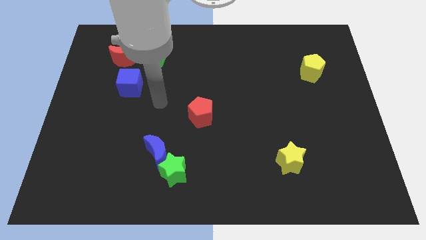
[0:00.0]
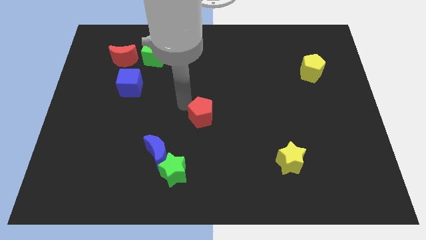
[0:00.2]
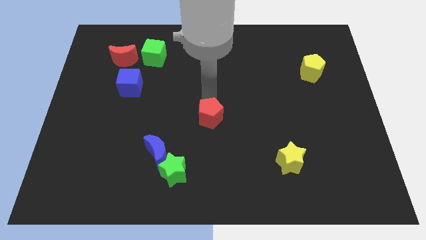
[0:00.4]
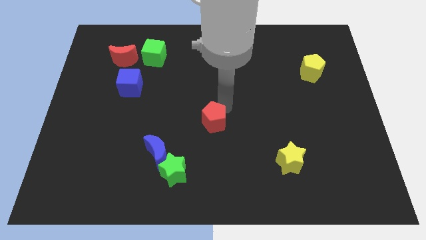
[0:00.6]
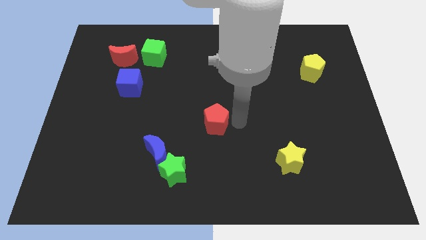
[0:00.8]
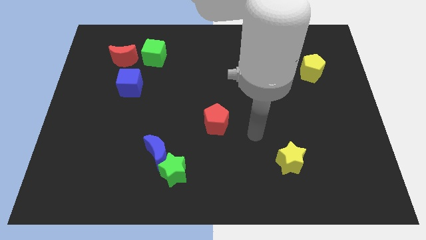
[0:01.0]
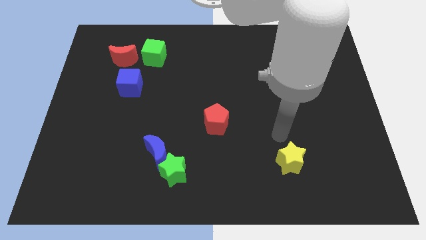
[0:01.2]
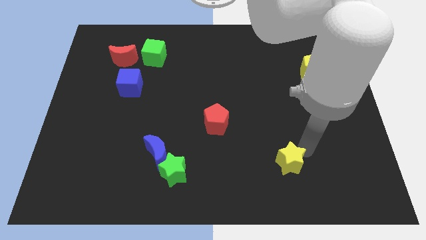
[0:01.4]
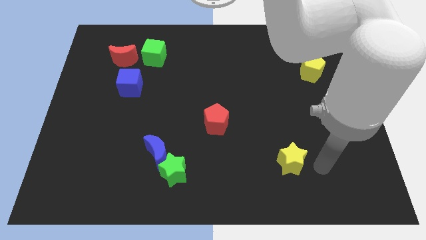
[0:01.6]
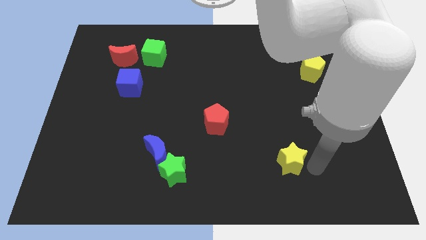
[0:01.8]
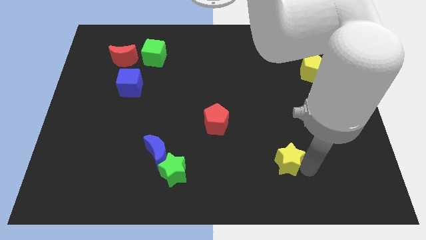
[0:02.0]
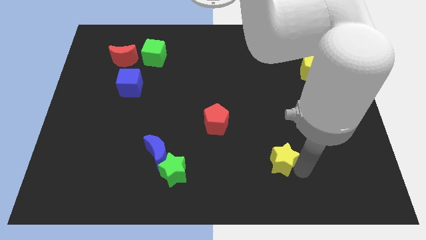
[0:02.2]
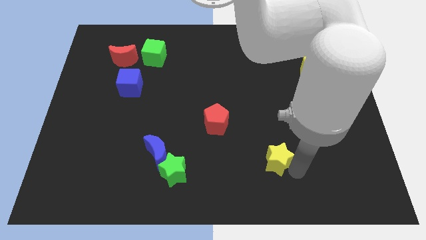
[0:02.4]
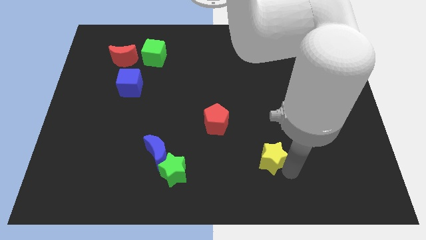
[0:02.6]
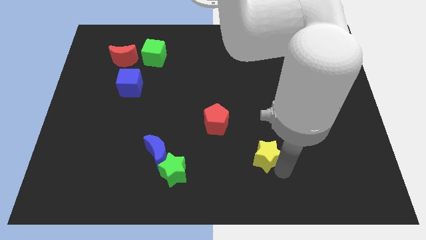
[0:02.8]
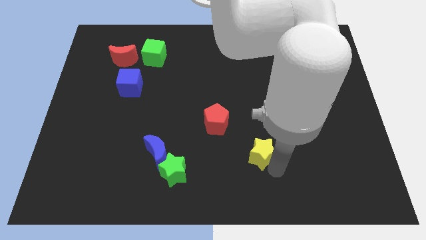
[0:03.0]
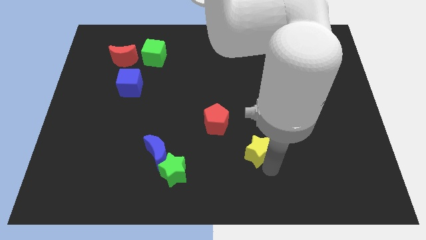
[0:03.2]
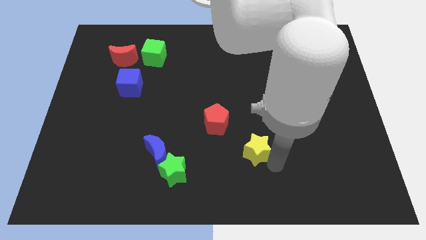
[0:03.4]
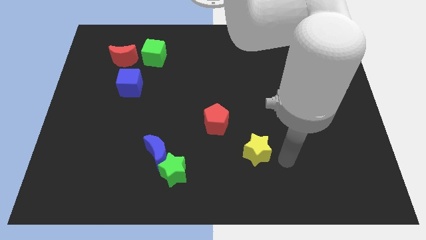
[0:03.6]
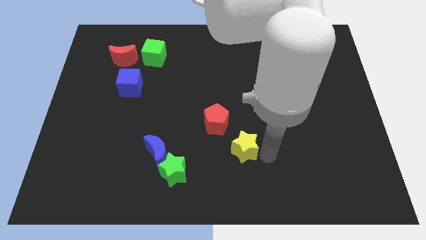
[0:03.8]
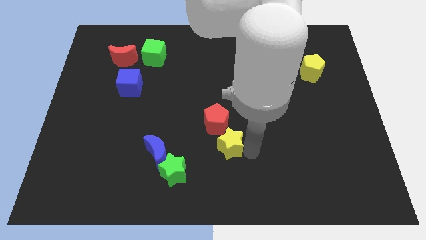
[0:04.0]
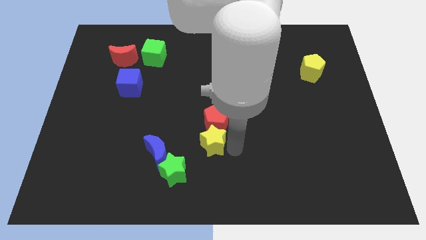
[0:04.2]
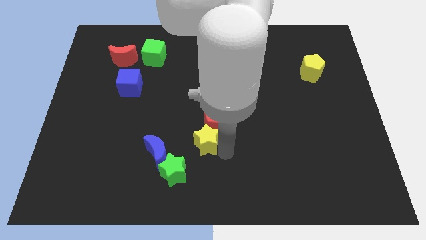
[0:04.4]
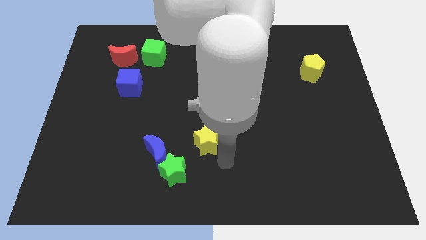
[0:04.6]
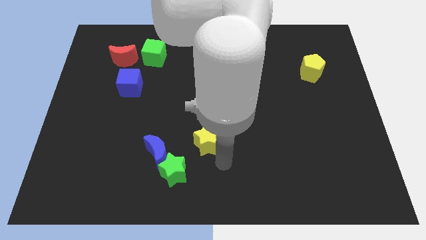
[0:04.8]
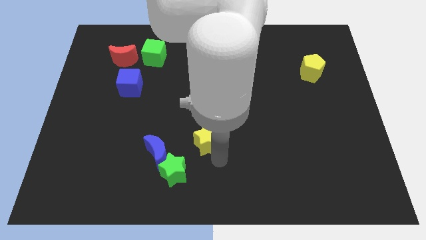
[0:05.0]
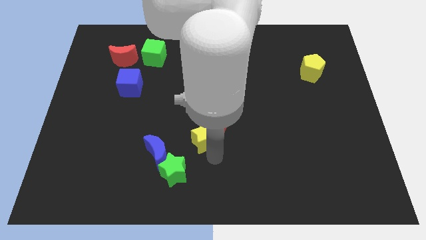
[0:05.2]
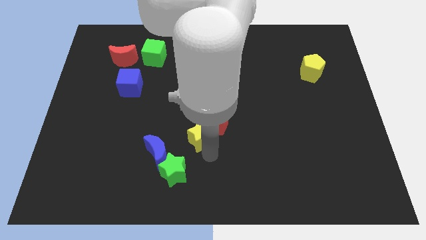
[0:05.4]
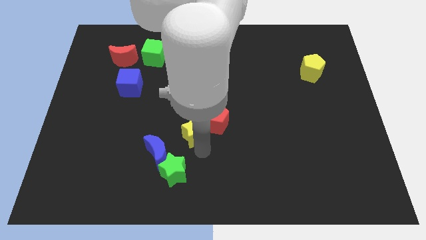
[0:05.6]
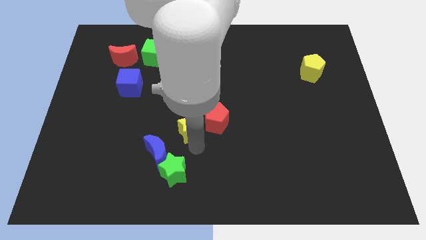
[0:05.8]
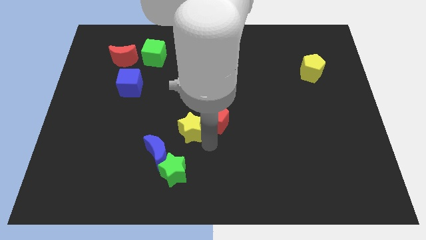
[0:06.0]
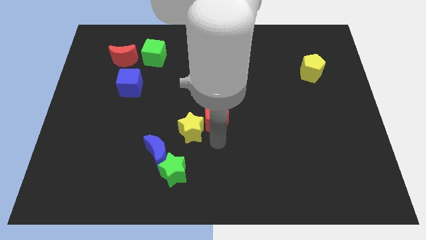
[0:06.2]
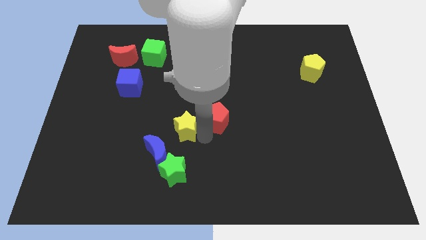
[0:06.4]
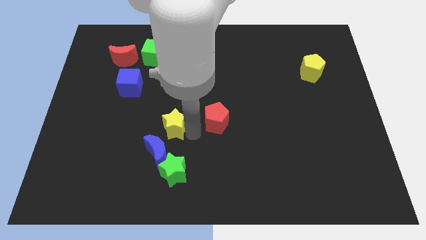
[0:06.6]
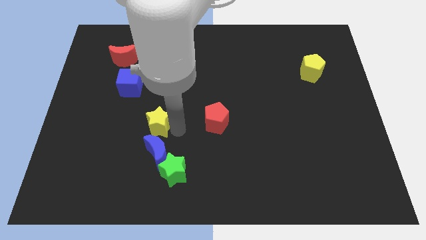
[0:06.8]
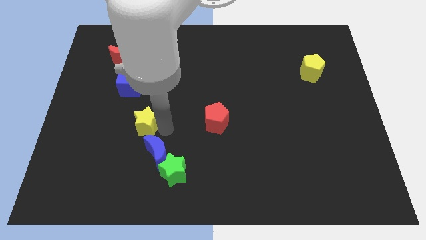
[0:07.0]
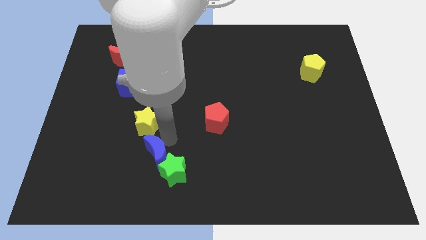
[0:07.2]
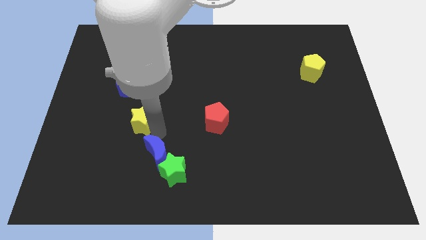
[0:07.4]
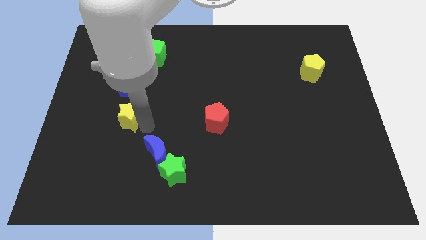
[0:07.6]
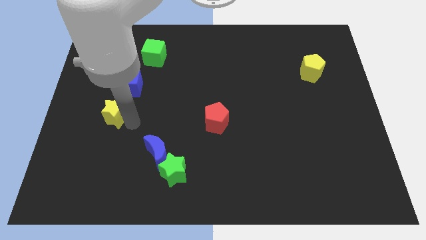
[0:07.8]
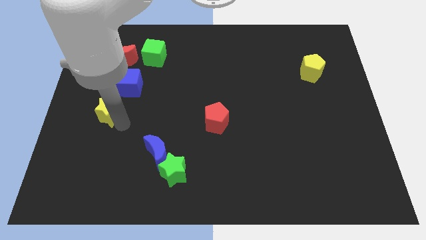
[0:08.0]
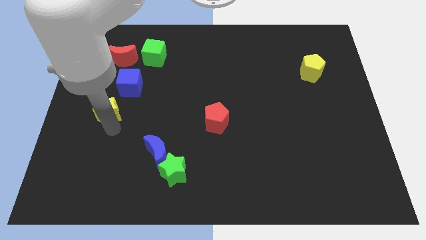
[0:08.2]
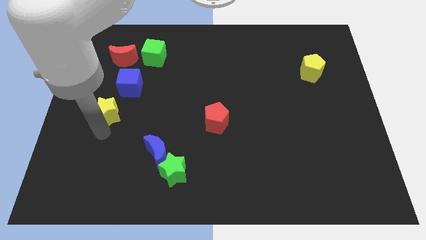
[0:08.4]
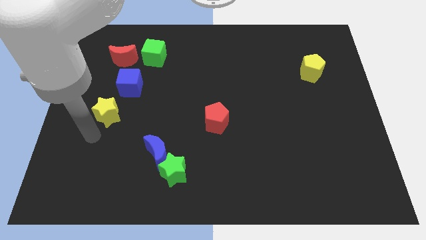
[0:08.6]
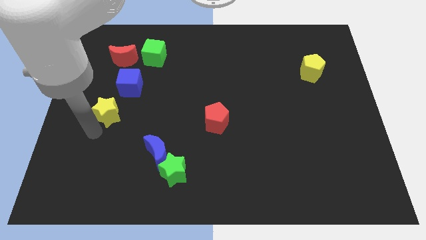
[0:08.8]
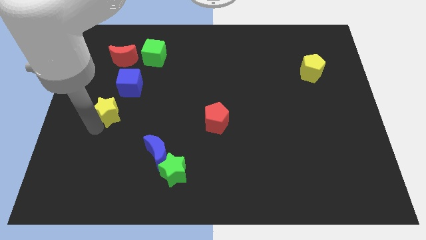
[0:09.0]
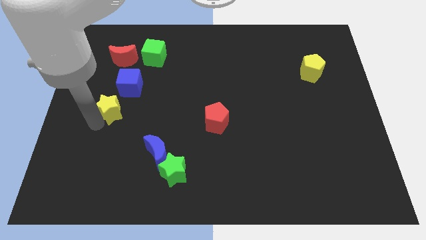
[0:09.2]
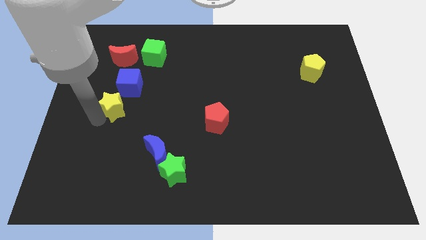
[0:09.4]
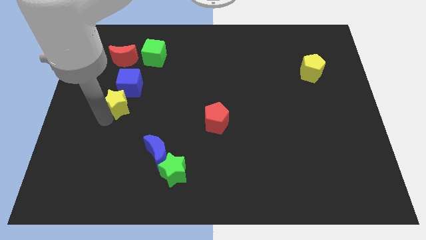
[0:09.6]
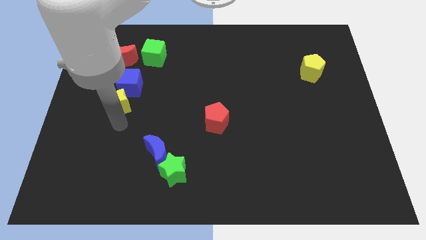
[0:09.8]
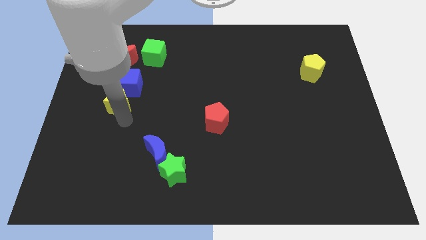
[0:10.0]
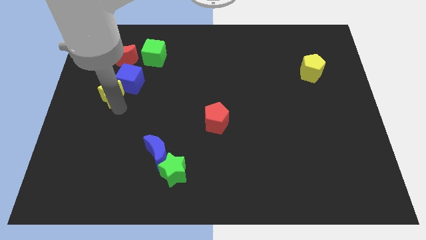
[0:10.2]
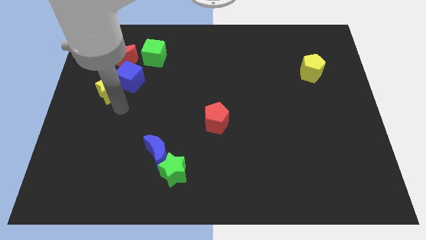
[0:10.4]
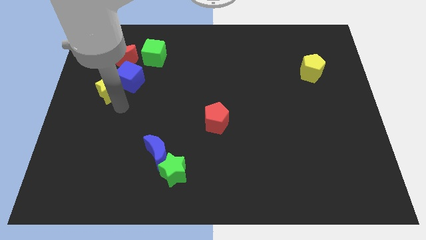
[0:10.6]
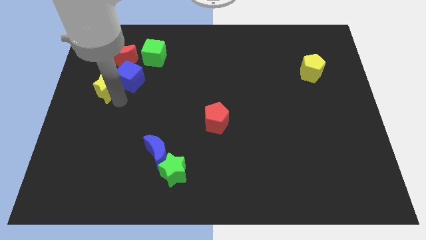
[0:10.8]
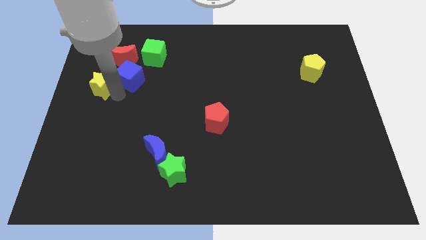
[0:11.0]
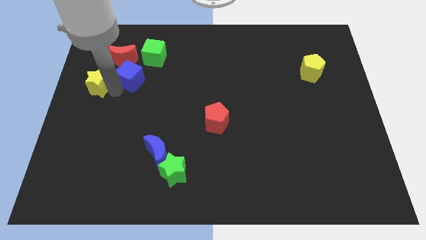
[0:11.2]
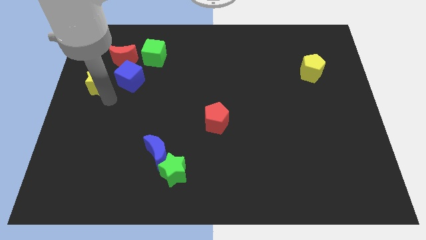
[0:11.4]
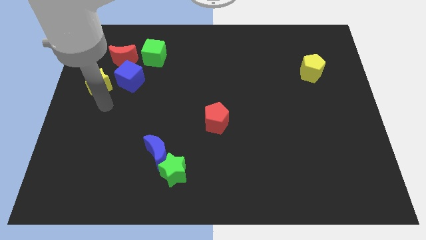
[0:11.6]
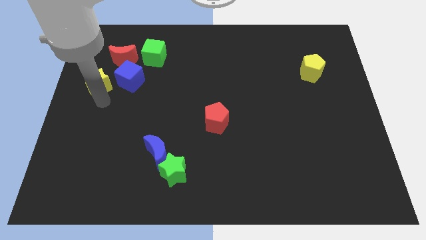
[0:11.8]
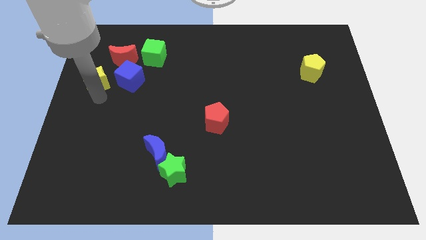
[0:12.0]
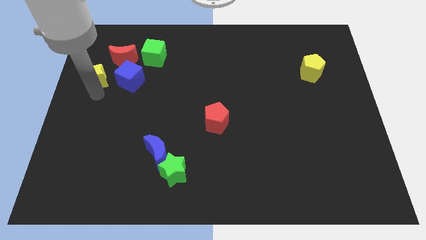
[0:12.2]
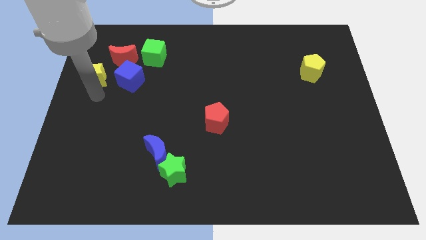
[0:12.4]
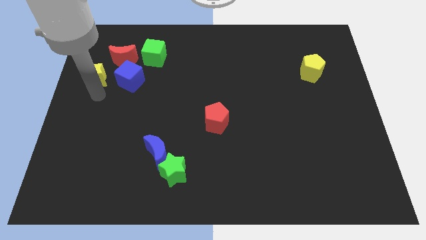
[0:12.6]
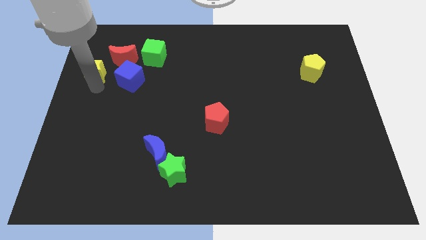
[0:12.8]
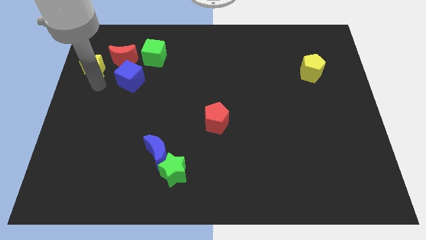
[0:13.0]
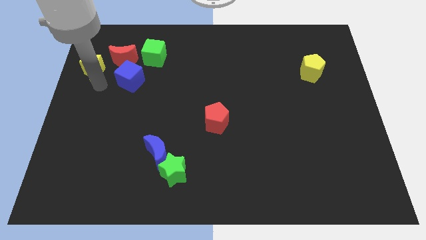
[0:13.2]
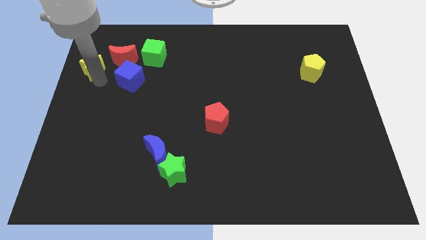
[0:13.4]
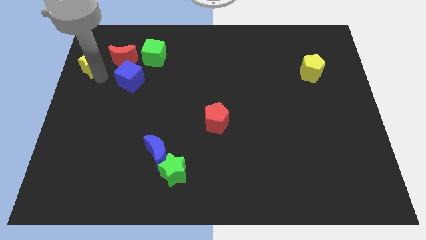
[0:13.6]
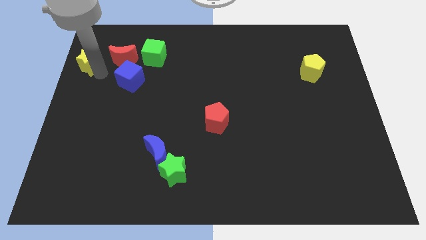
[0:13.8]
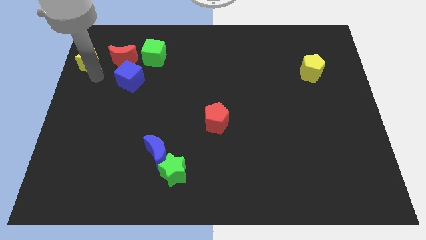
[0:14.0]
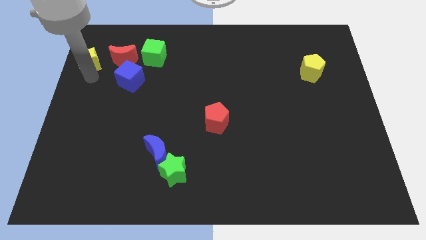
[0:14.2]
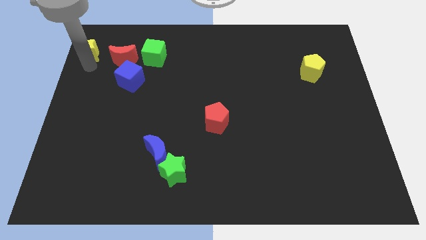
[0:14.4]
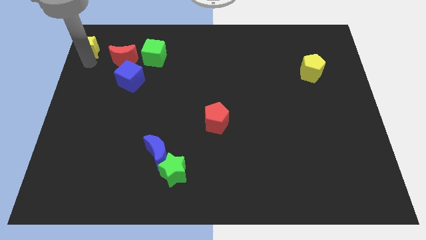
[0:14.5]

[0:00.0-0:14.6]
put the yellow star to the top left of the board

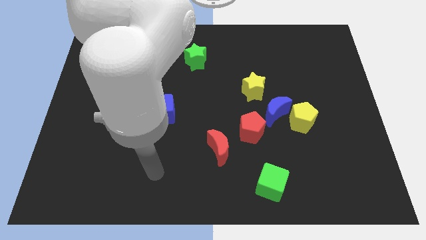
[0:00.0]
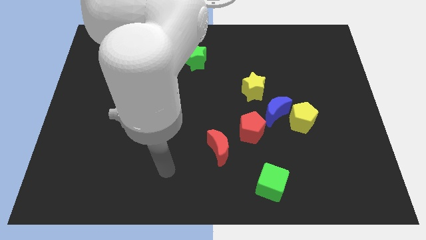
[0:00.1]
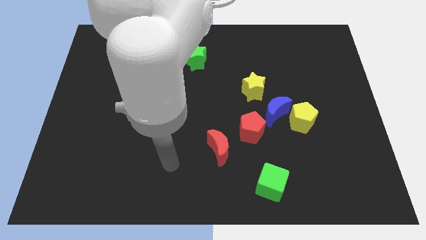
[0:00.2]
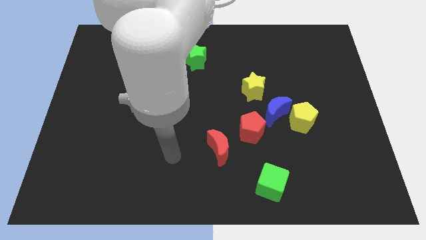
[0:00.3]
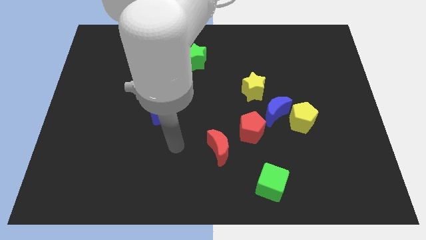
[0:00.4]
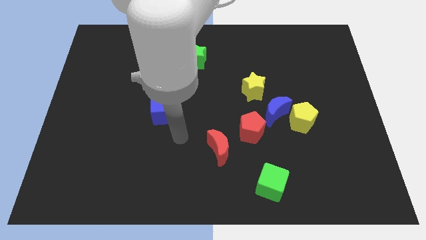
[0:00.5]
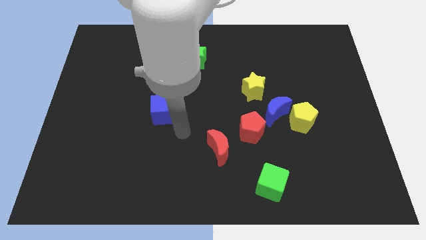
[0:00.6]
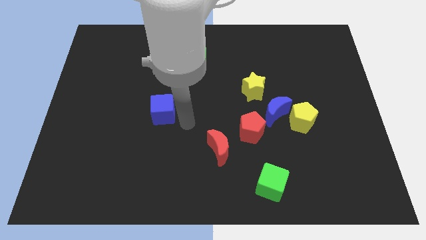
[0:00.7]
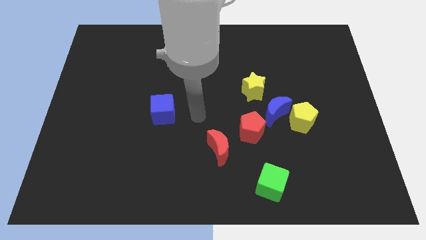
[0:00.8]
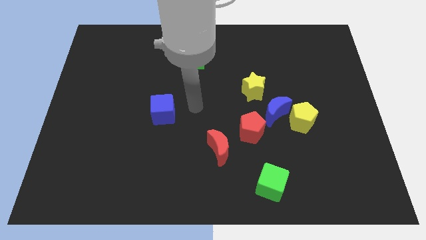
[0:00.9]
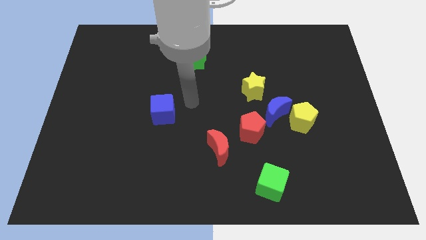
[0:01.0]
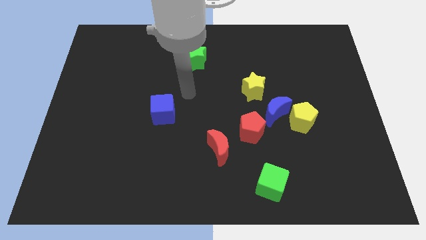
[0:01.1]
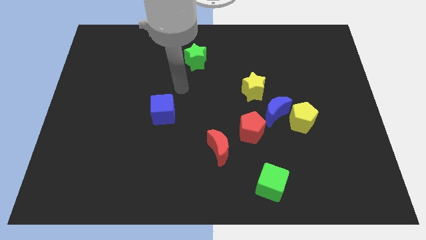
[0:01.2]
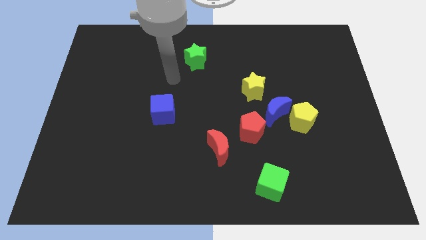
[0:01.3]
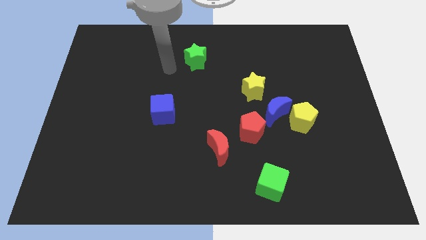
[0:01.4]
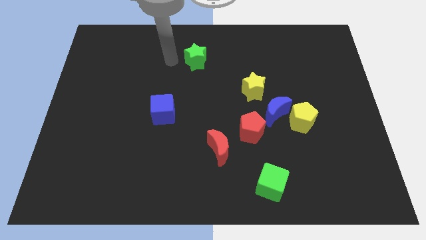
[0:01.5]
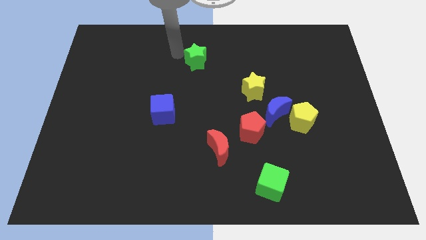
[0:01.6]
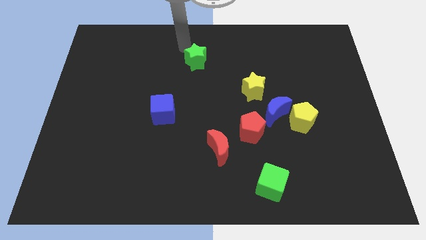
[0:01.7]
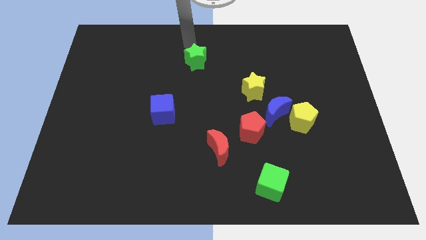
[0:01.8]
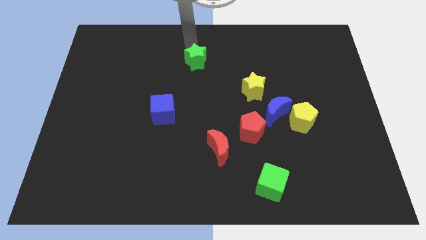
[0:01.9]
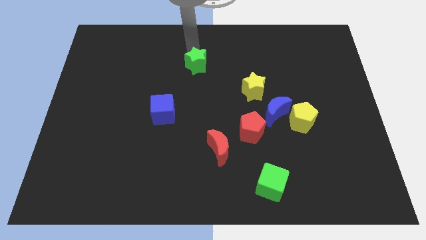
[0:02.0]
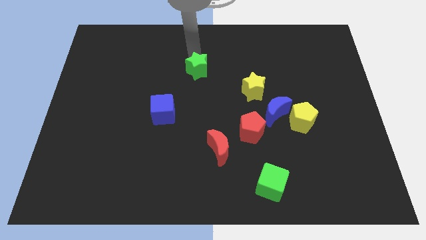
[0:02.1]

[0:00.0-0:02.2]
put the green star to the center
